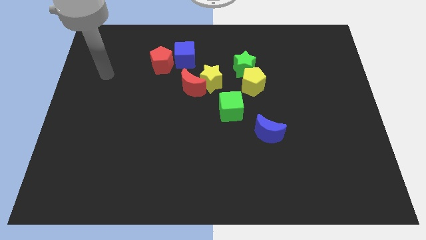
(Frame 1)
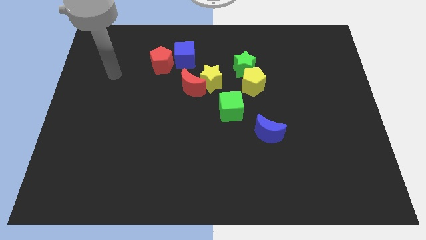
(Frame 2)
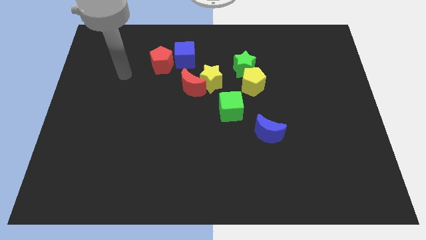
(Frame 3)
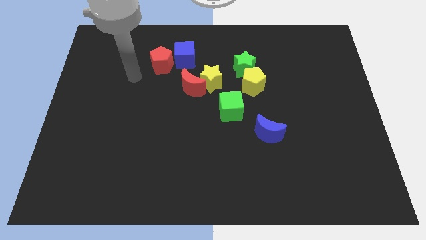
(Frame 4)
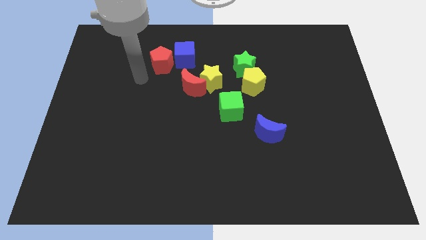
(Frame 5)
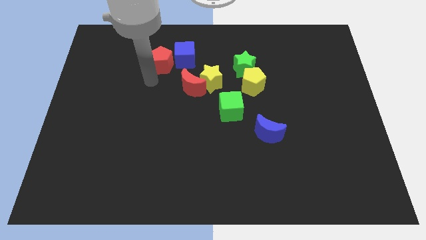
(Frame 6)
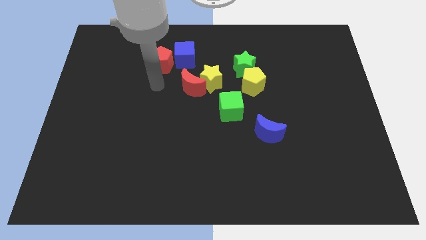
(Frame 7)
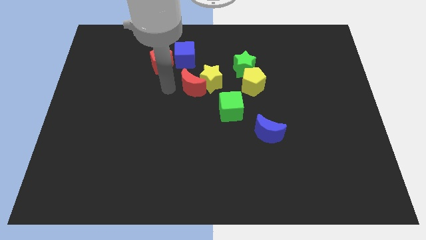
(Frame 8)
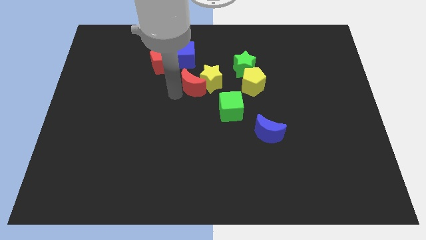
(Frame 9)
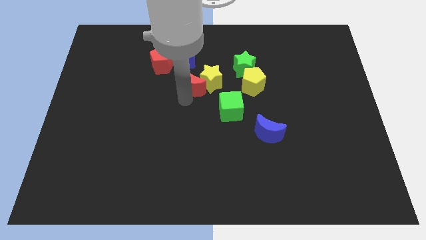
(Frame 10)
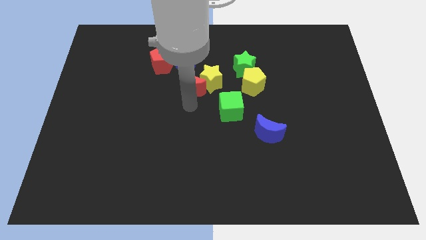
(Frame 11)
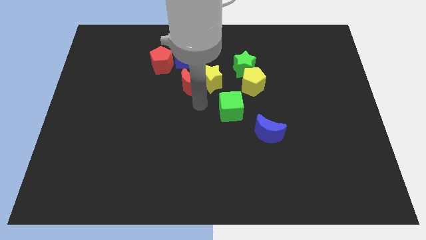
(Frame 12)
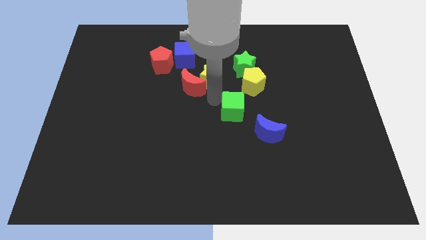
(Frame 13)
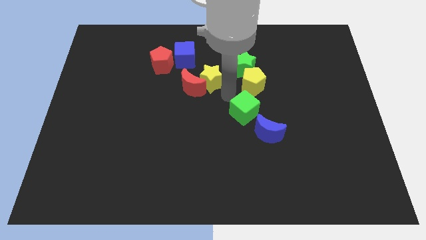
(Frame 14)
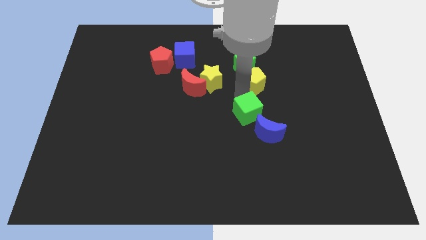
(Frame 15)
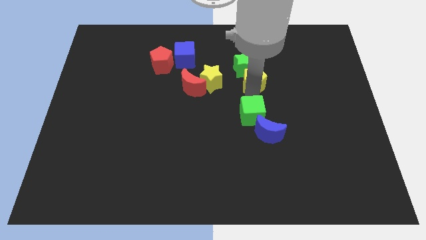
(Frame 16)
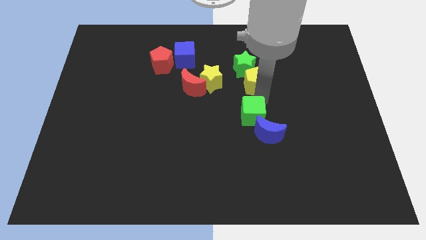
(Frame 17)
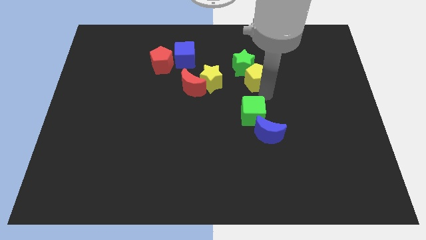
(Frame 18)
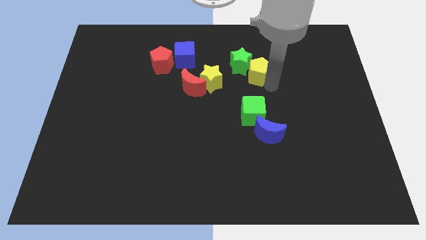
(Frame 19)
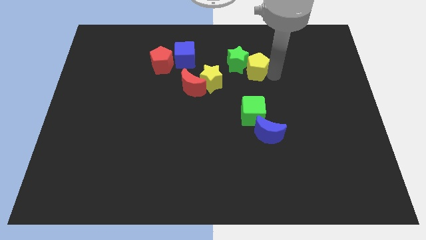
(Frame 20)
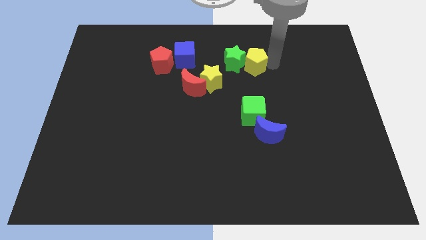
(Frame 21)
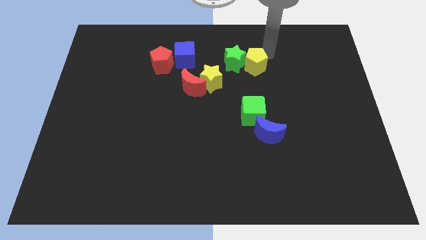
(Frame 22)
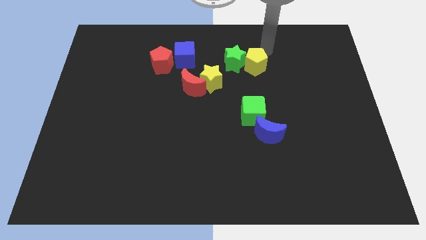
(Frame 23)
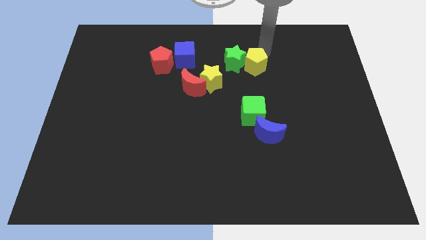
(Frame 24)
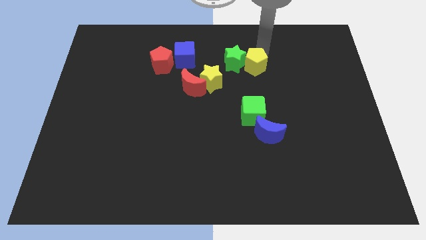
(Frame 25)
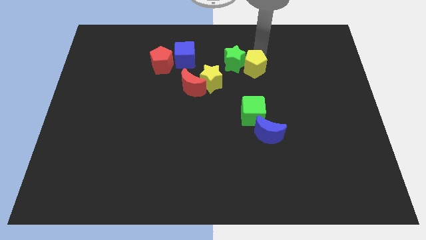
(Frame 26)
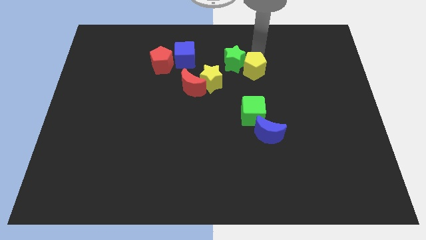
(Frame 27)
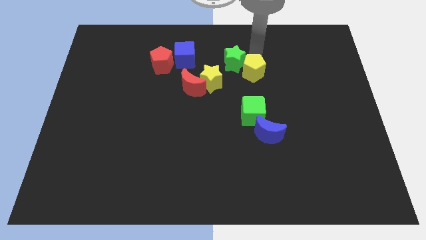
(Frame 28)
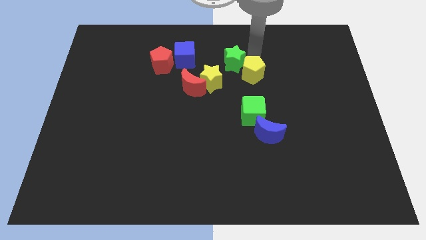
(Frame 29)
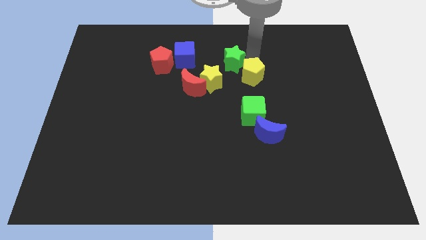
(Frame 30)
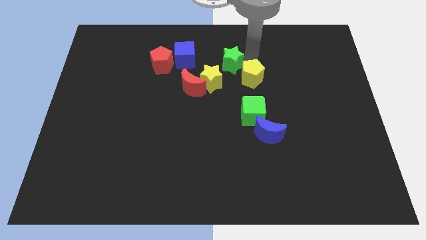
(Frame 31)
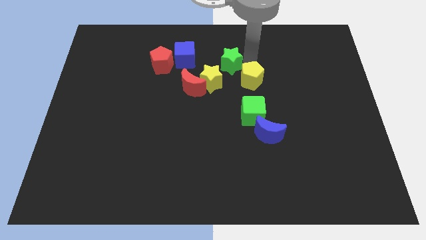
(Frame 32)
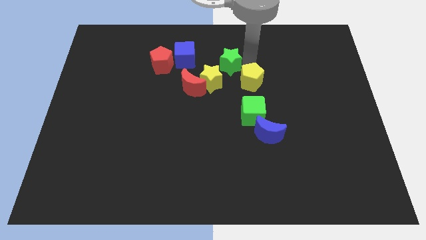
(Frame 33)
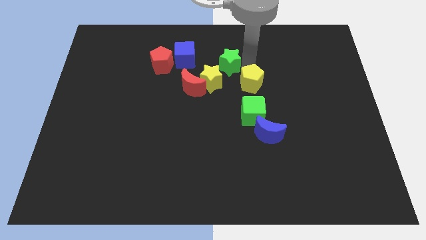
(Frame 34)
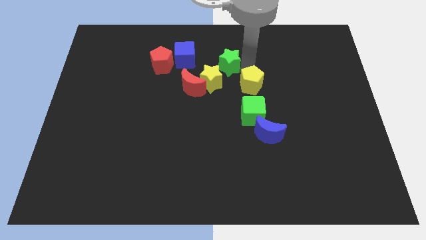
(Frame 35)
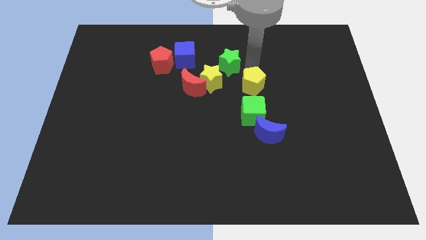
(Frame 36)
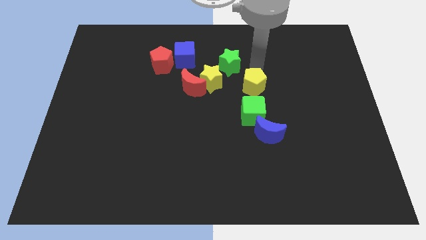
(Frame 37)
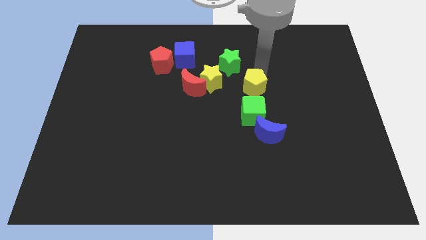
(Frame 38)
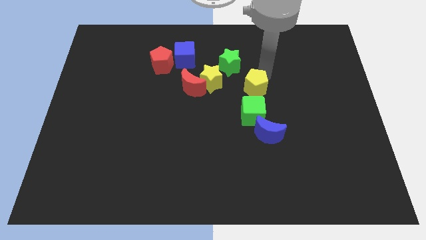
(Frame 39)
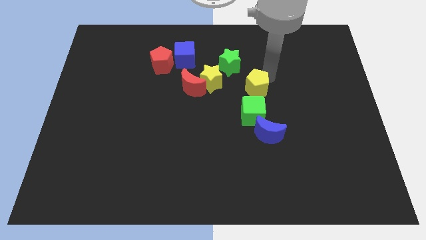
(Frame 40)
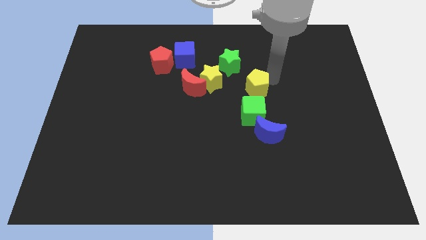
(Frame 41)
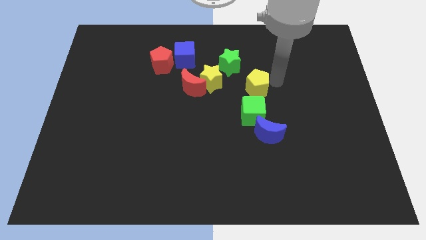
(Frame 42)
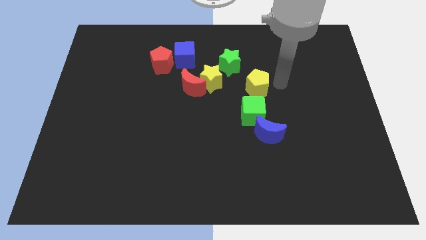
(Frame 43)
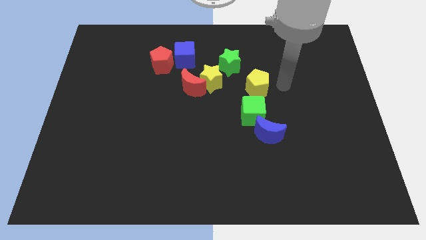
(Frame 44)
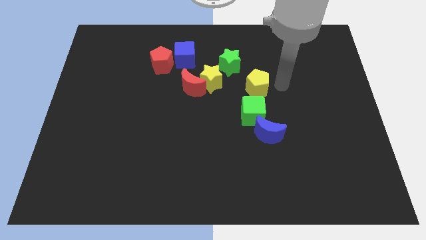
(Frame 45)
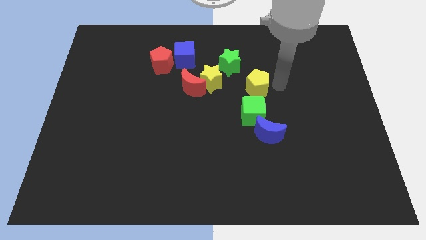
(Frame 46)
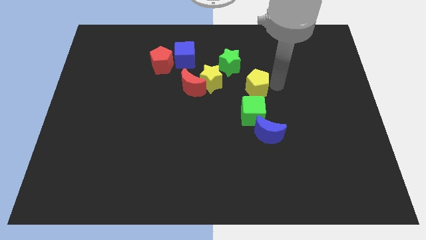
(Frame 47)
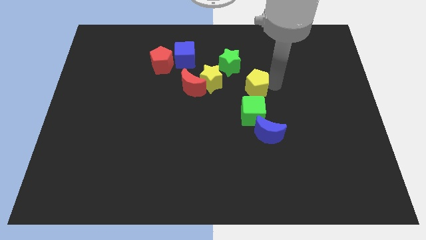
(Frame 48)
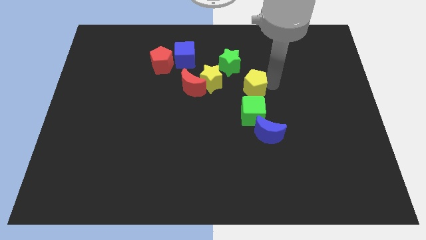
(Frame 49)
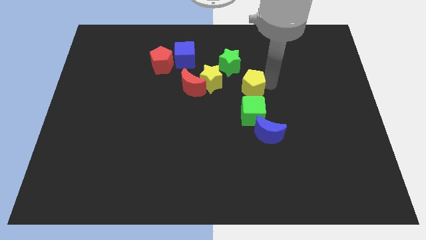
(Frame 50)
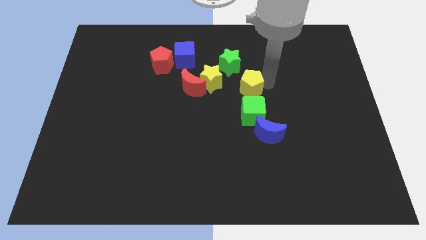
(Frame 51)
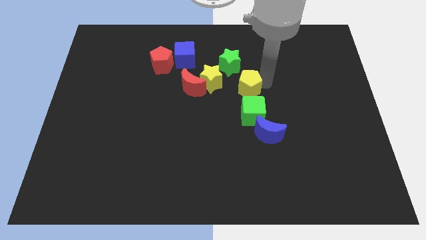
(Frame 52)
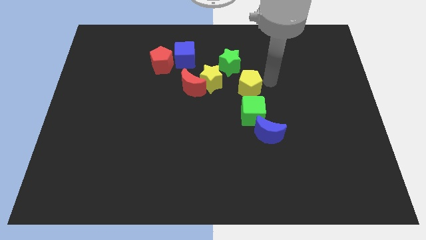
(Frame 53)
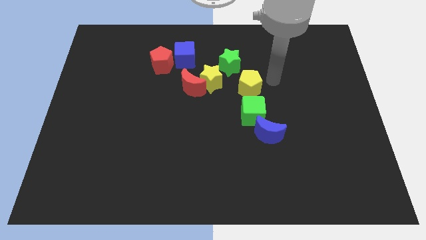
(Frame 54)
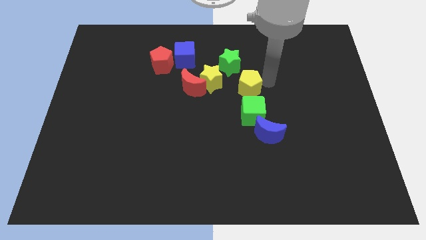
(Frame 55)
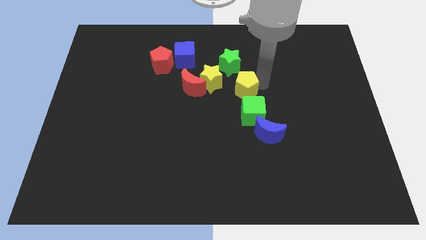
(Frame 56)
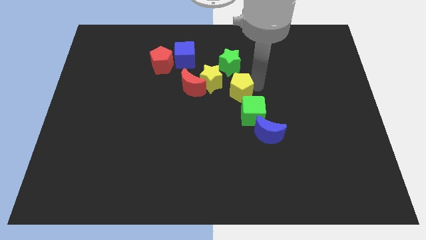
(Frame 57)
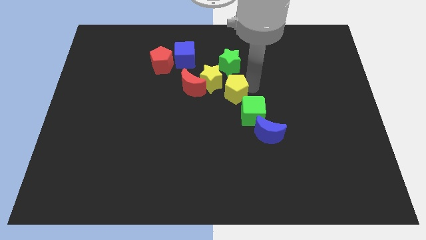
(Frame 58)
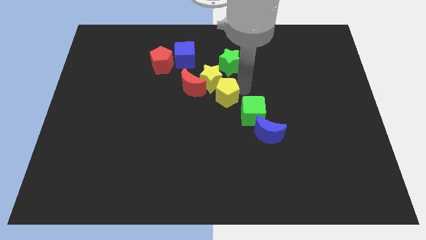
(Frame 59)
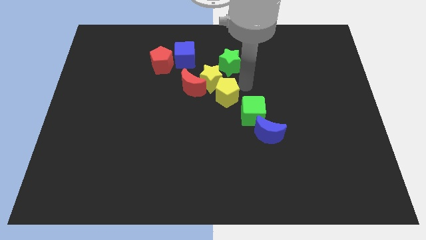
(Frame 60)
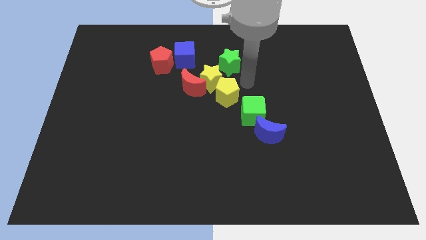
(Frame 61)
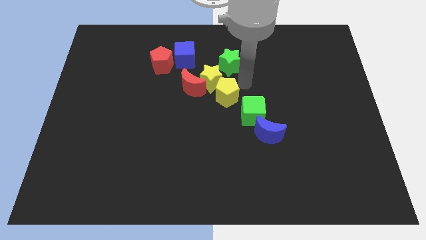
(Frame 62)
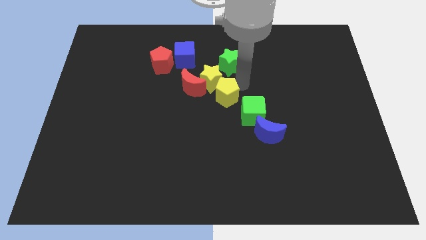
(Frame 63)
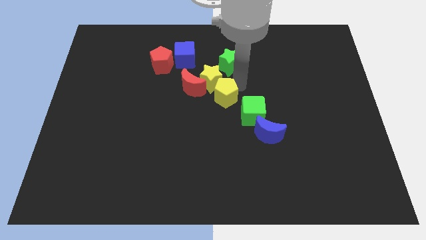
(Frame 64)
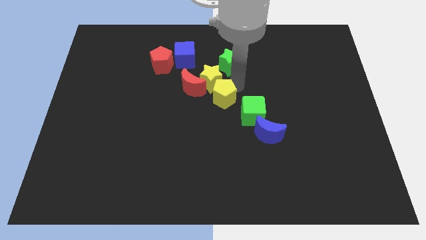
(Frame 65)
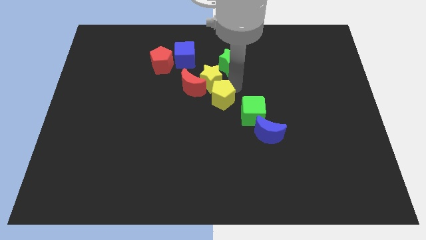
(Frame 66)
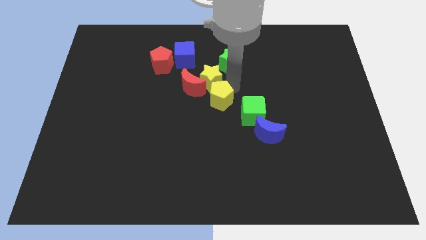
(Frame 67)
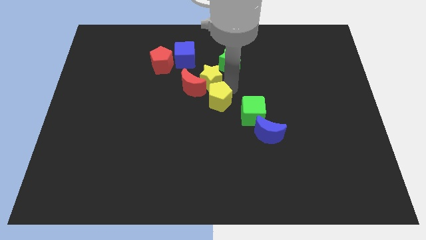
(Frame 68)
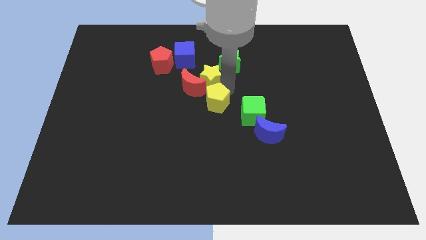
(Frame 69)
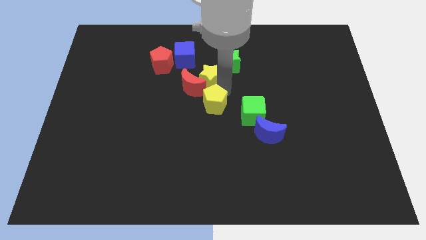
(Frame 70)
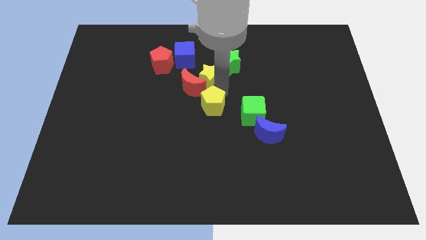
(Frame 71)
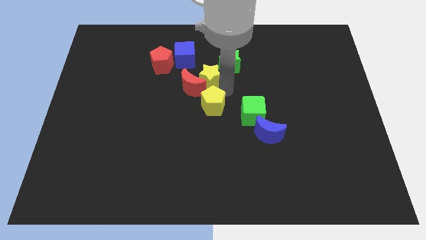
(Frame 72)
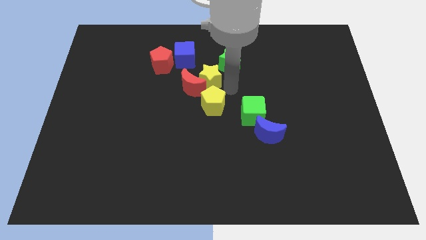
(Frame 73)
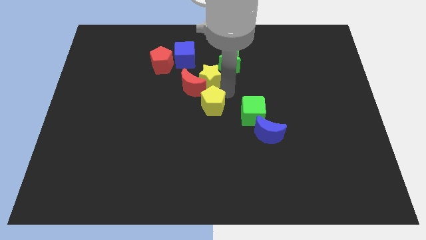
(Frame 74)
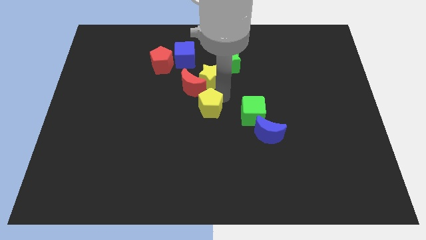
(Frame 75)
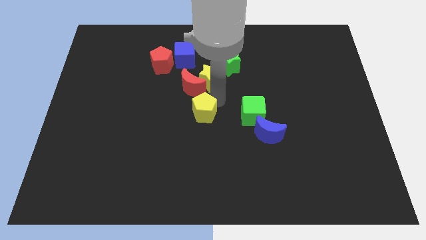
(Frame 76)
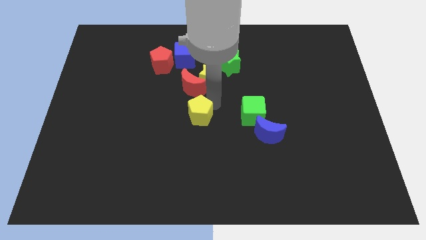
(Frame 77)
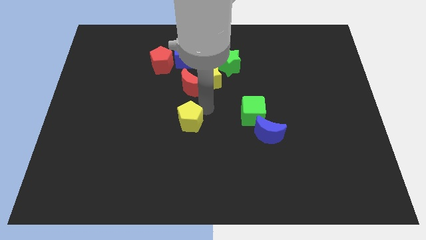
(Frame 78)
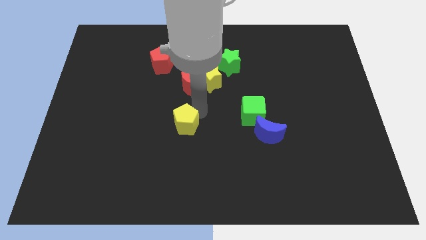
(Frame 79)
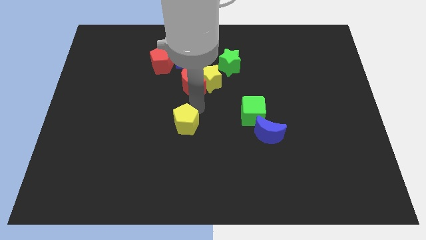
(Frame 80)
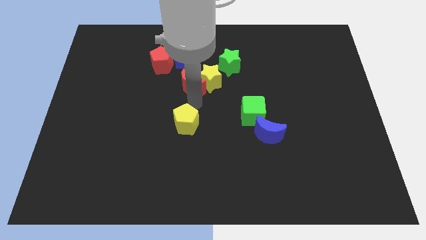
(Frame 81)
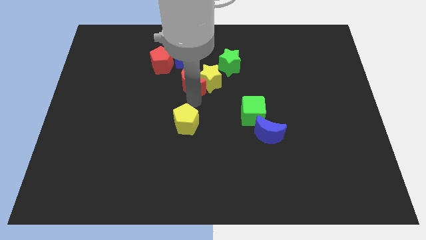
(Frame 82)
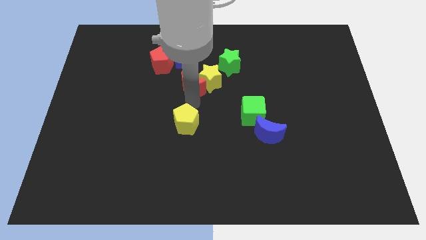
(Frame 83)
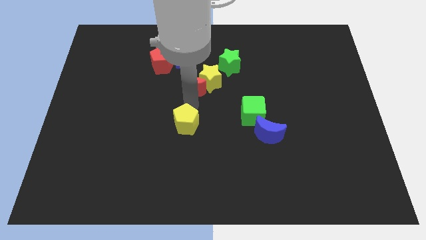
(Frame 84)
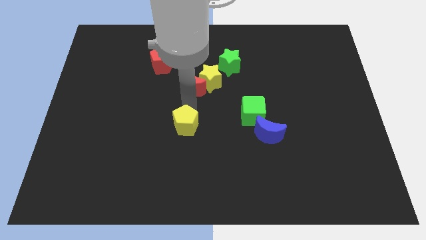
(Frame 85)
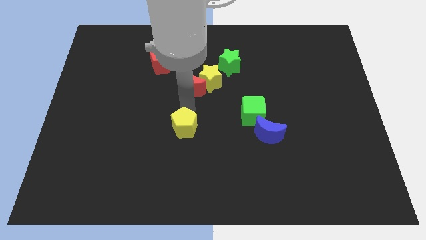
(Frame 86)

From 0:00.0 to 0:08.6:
move the yellow pentagon diagonally down and to the left
